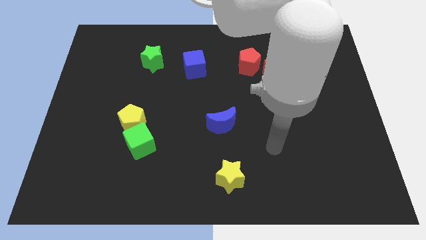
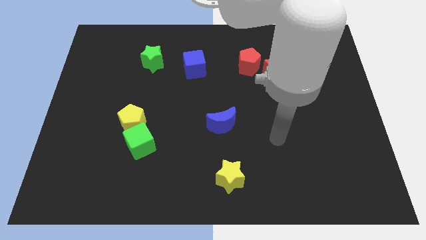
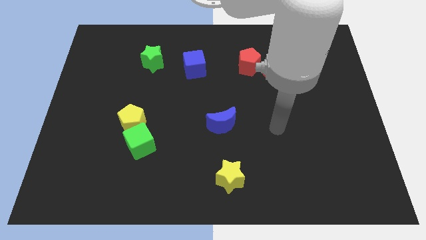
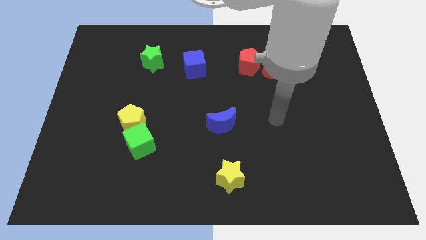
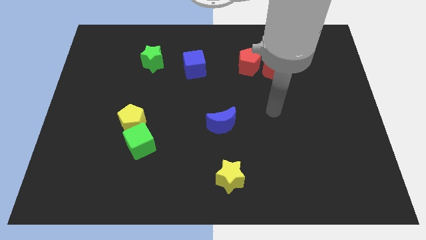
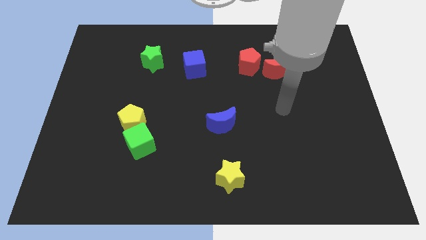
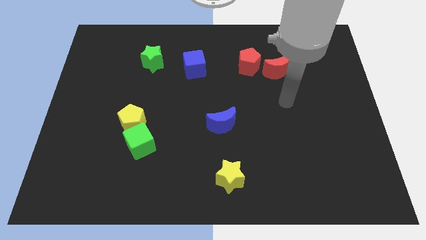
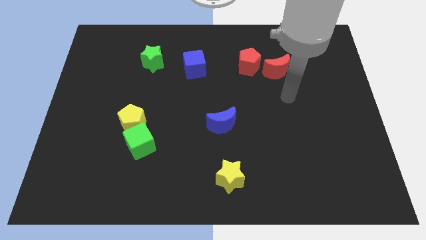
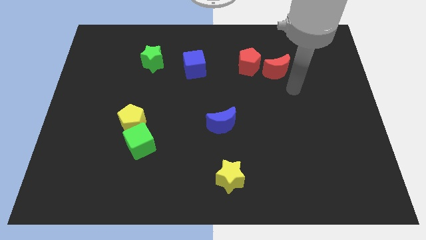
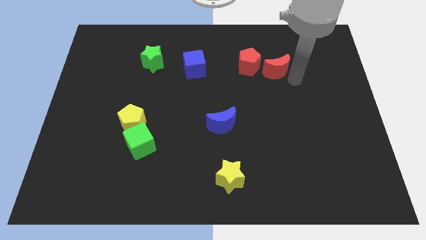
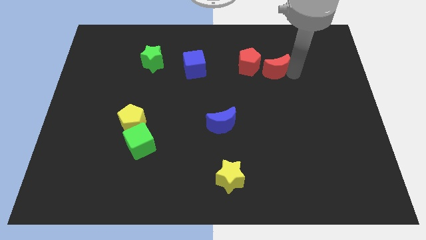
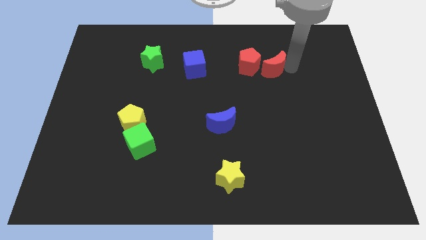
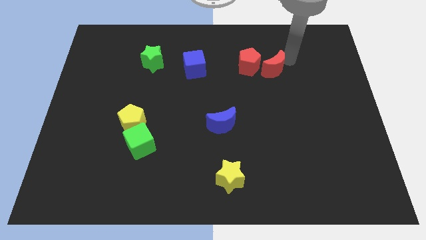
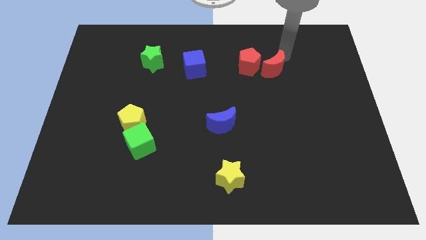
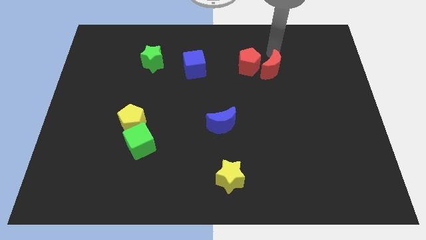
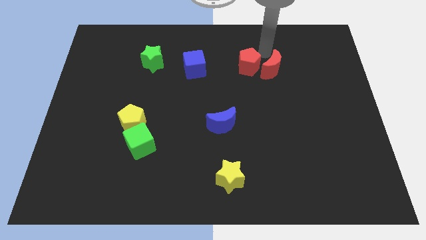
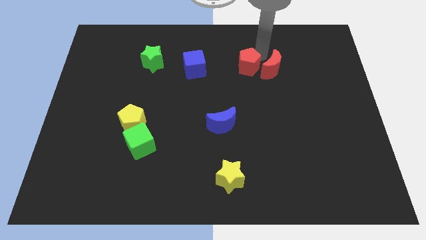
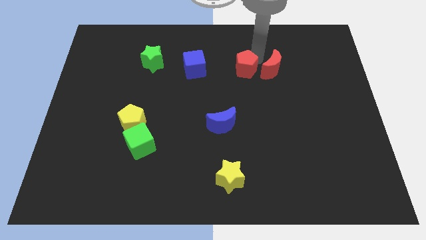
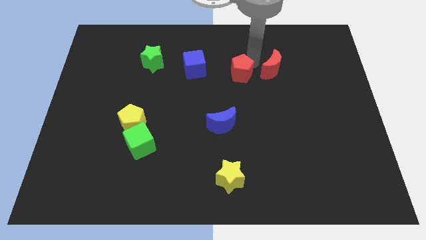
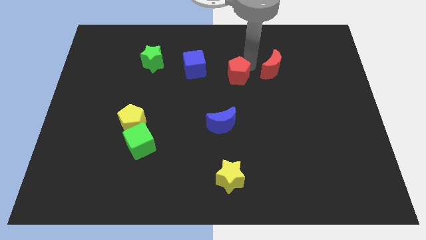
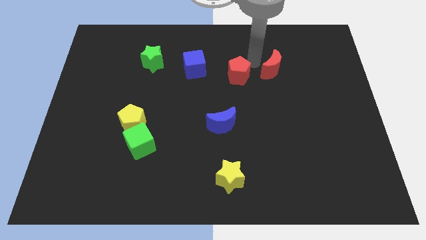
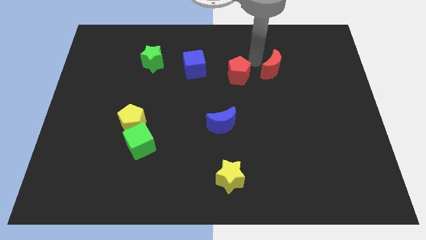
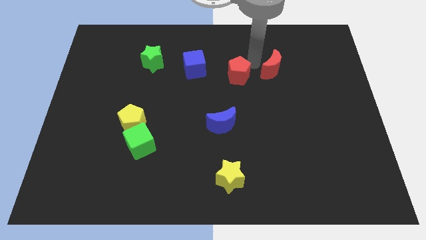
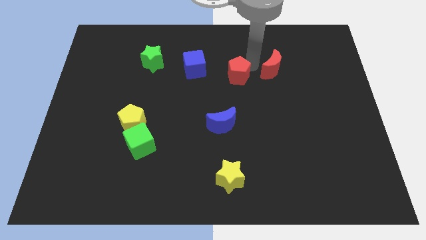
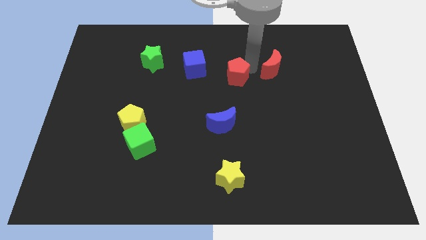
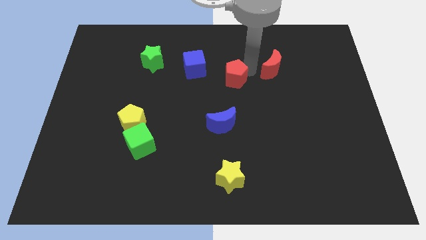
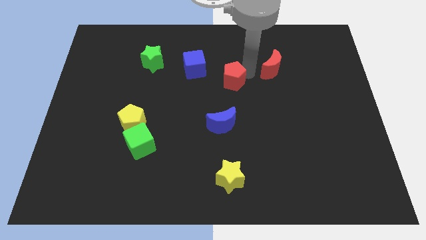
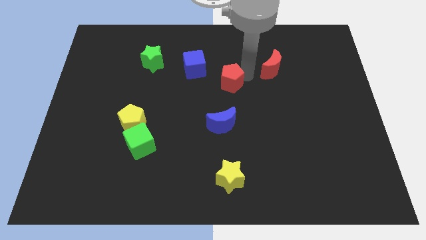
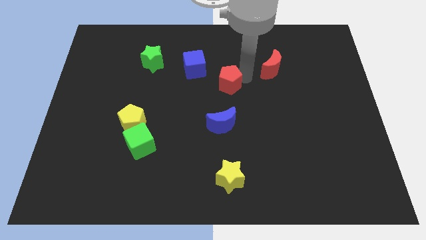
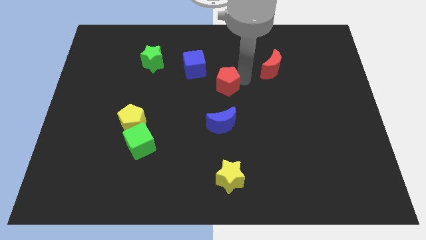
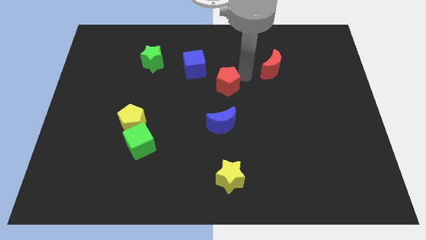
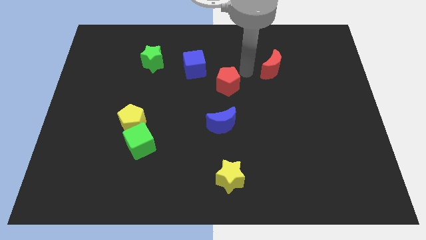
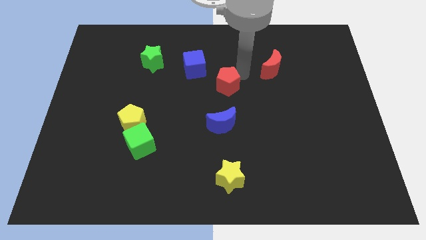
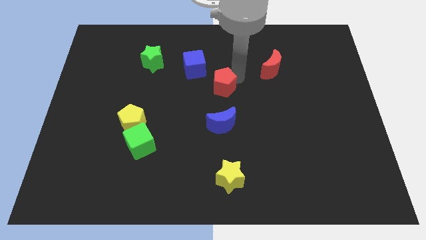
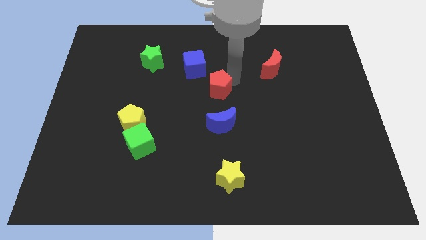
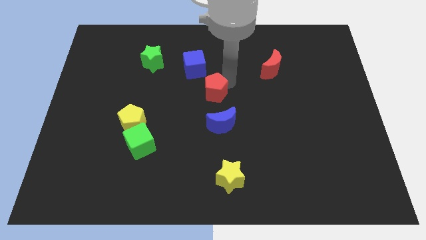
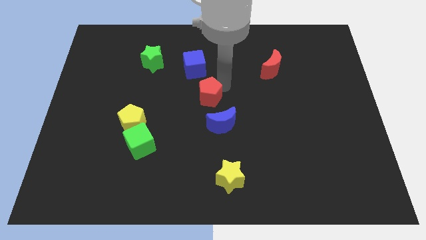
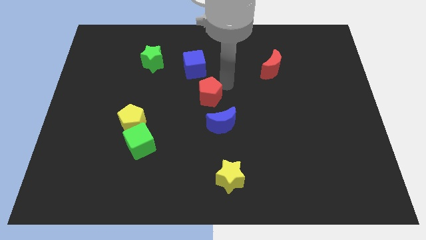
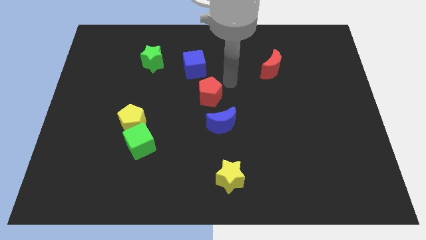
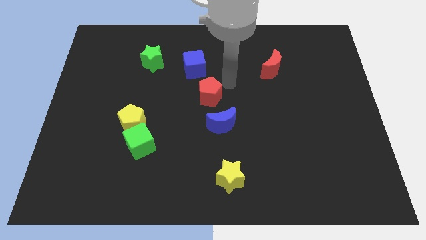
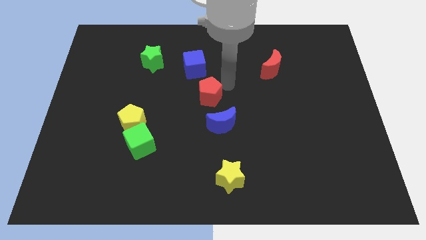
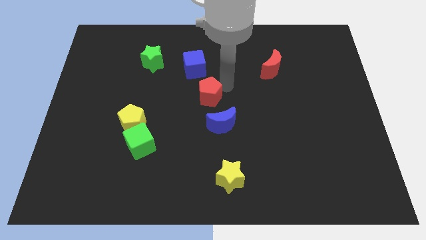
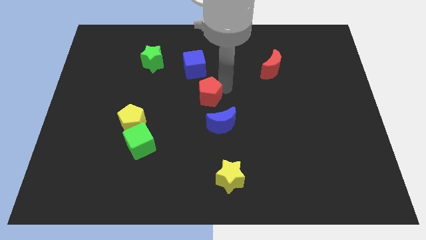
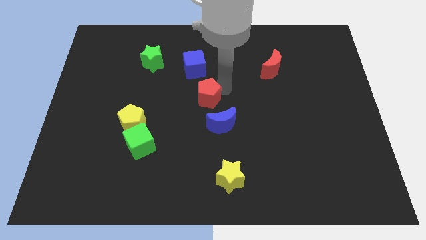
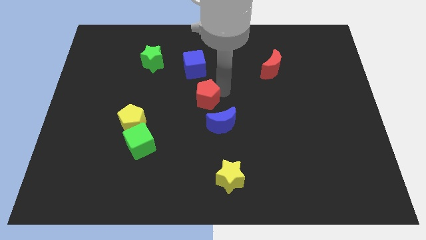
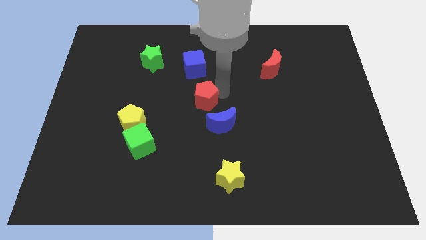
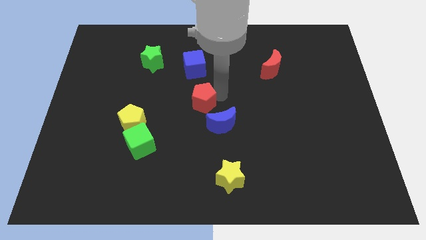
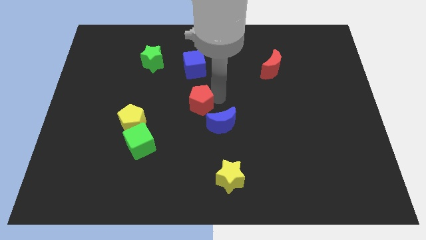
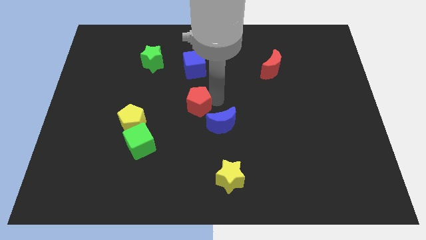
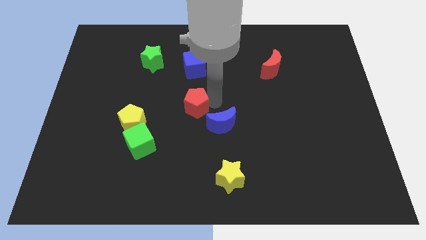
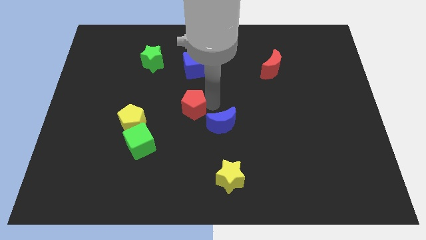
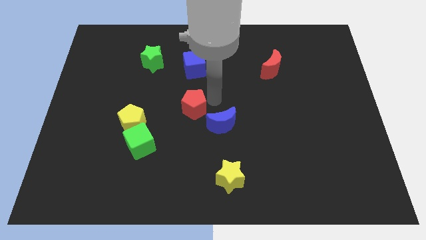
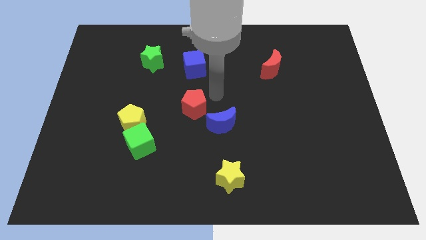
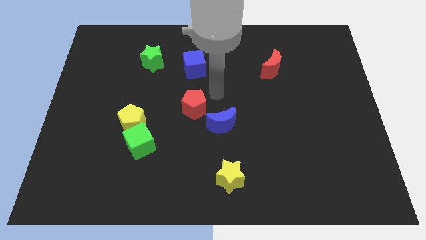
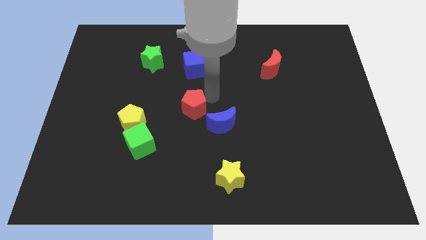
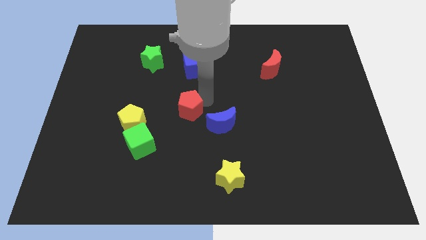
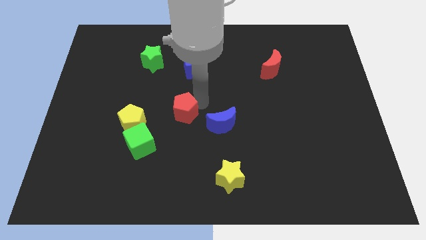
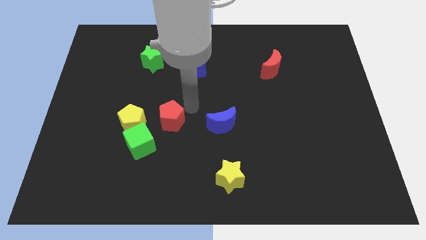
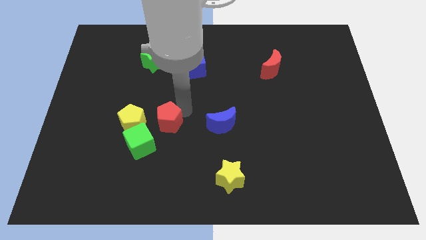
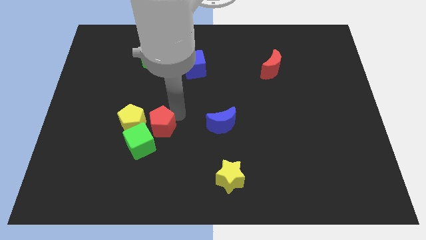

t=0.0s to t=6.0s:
move the red pentagon to the bottom right of the yellow pentagon

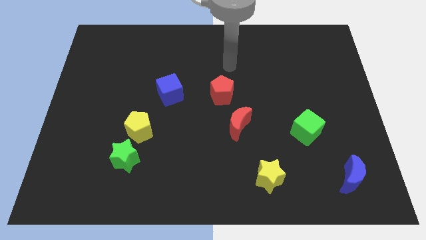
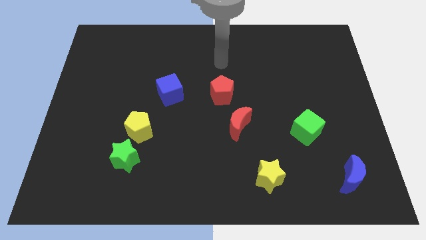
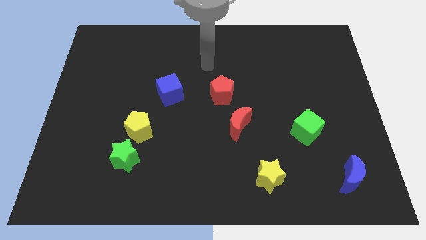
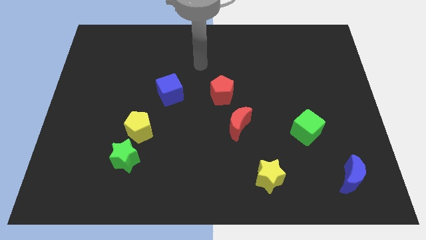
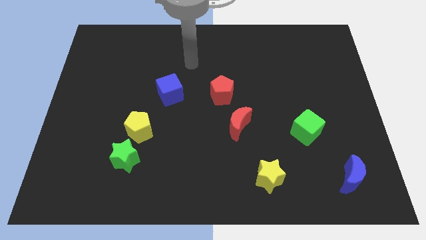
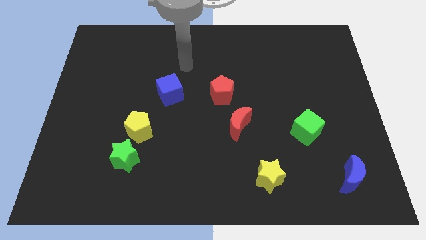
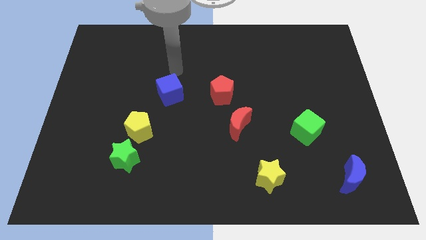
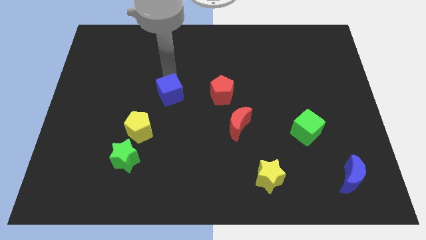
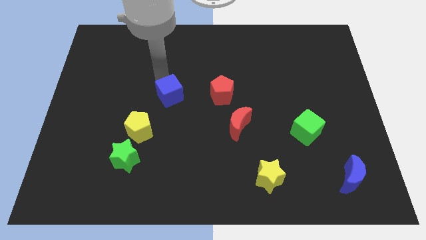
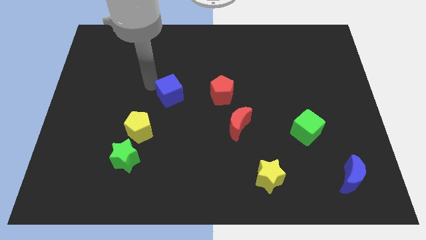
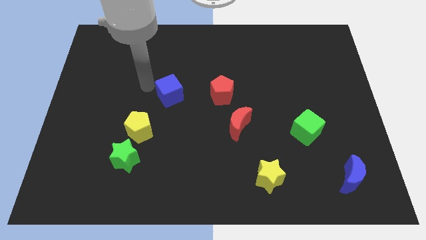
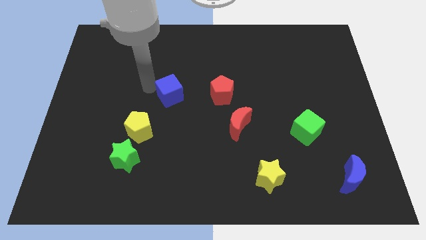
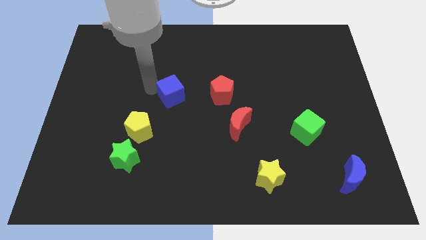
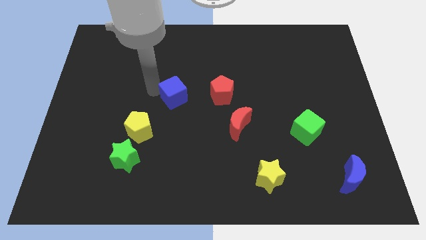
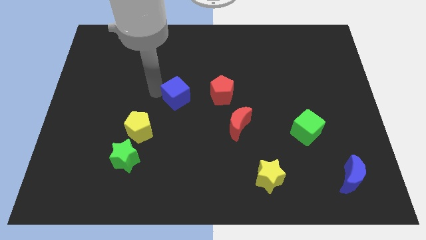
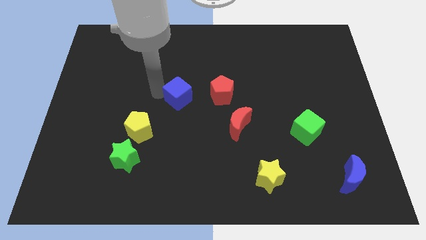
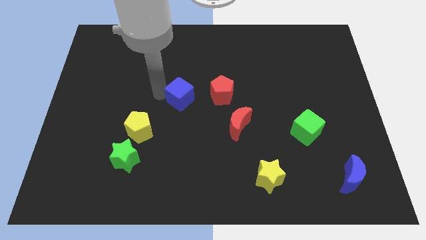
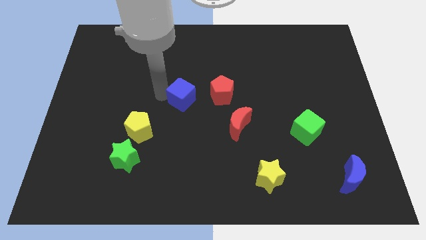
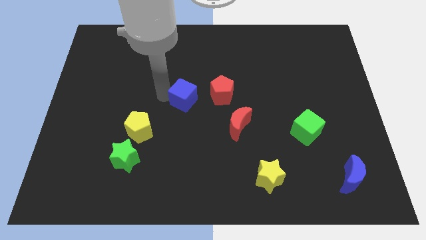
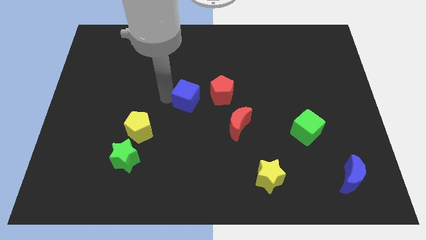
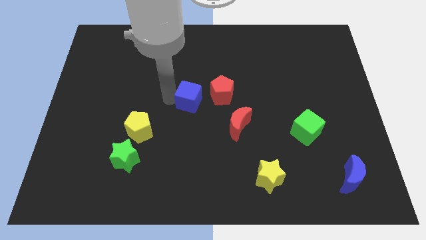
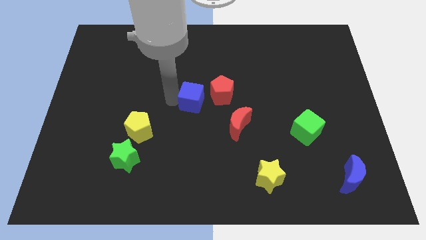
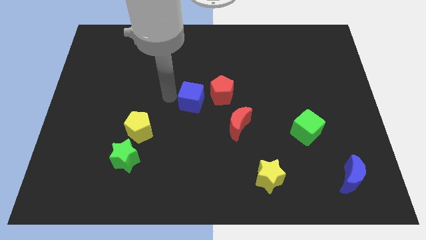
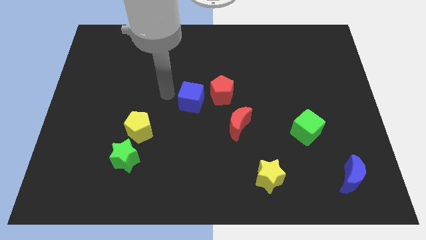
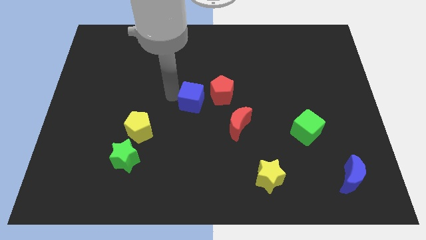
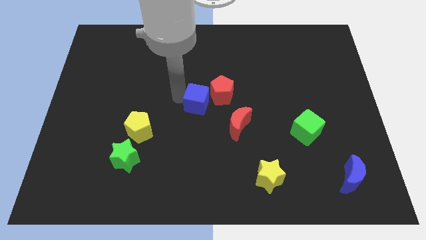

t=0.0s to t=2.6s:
push the blue cube to the top left of the red moon
